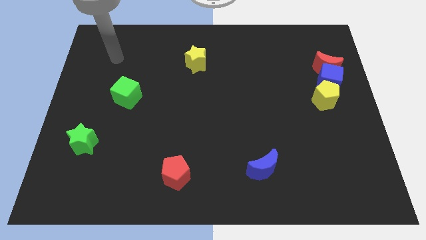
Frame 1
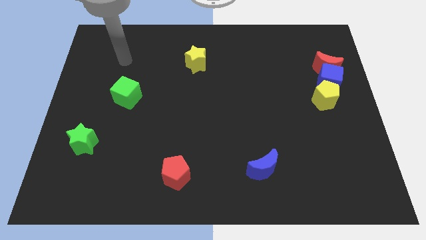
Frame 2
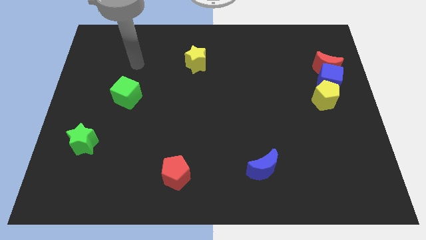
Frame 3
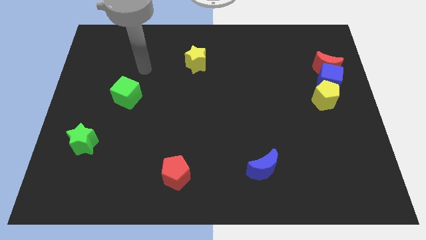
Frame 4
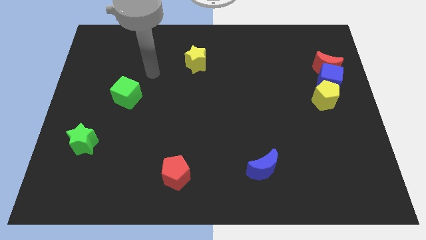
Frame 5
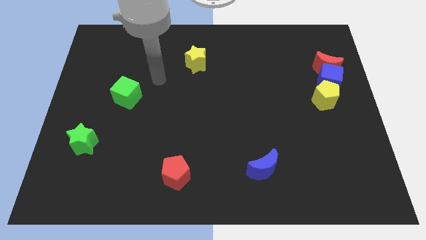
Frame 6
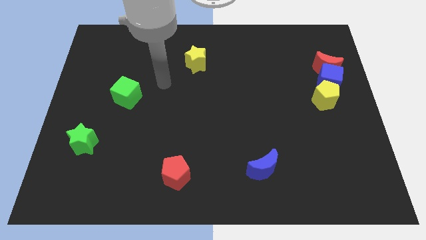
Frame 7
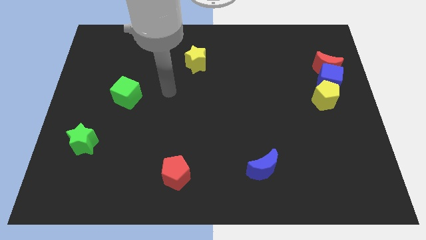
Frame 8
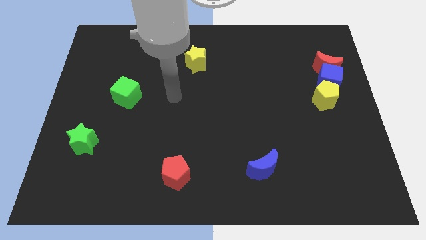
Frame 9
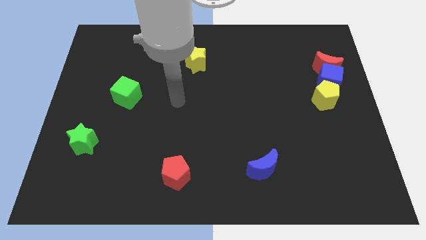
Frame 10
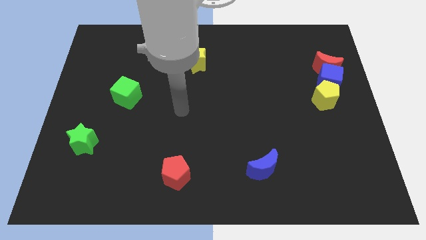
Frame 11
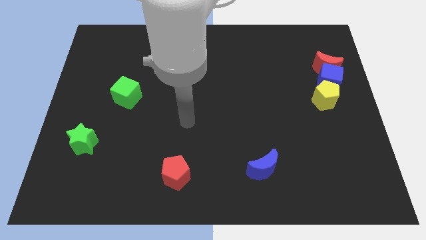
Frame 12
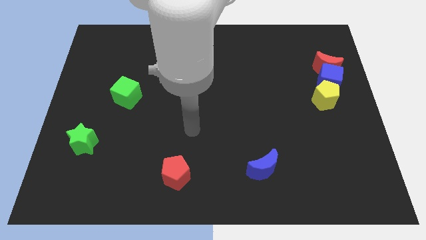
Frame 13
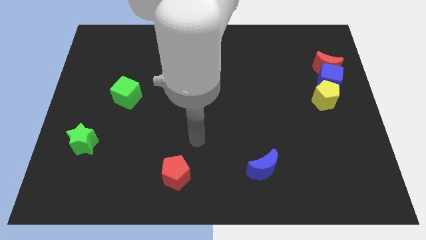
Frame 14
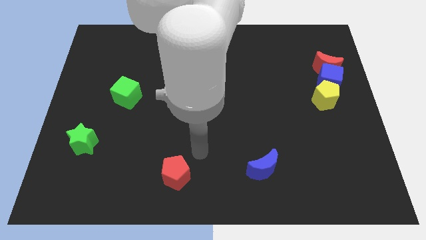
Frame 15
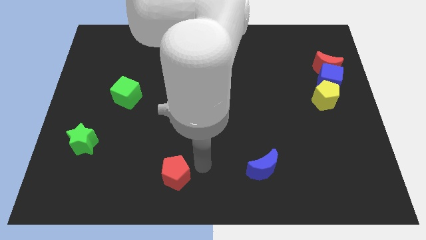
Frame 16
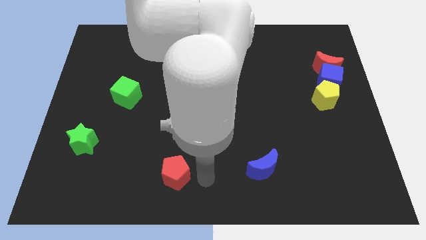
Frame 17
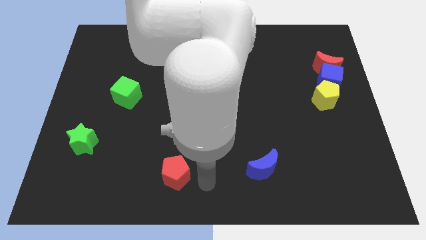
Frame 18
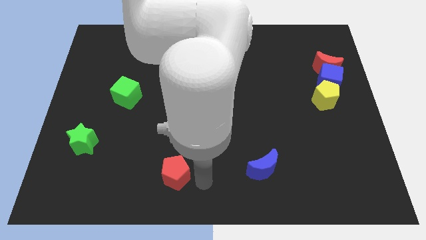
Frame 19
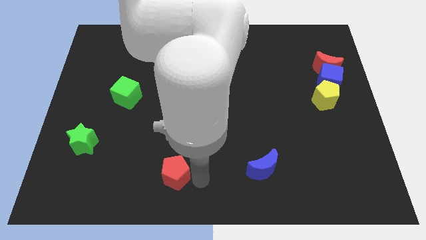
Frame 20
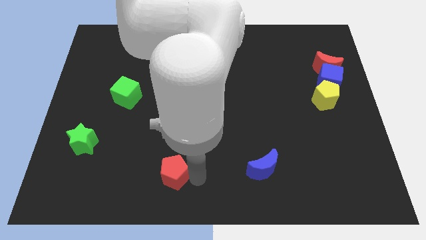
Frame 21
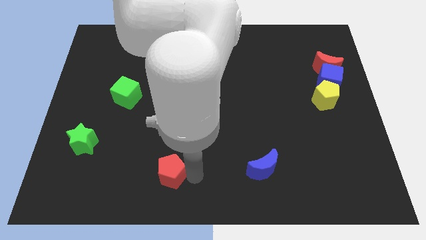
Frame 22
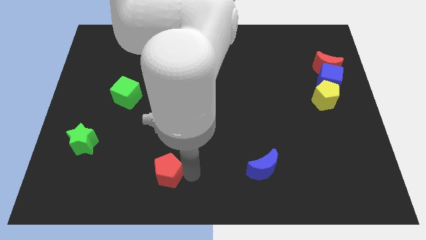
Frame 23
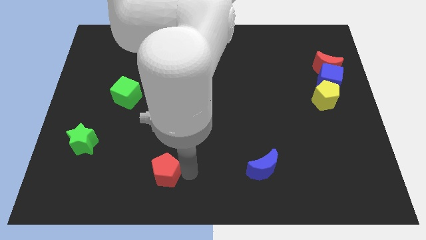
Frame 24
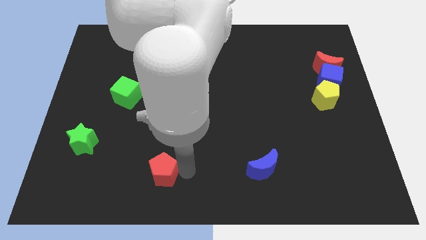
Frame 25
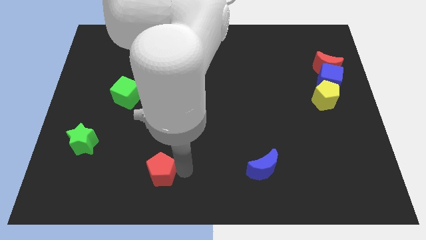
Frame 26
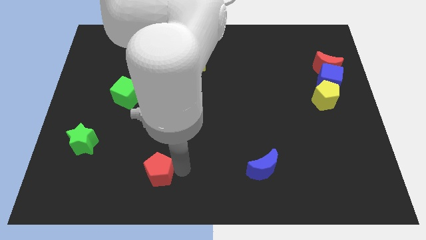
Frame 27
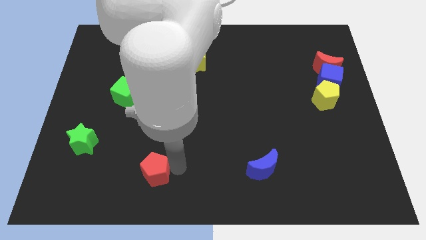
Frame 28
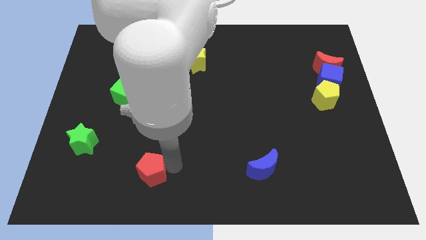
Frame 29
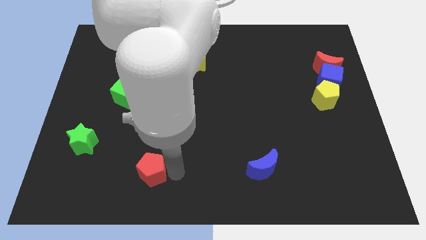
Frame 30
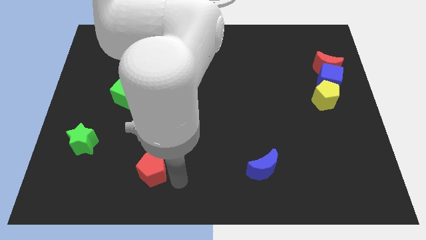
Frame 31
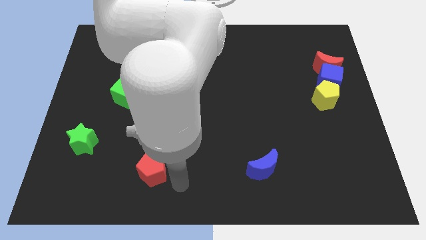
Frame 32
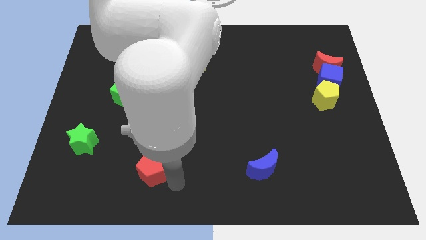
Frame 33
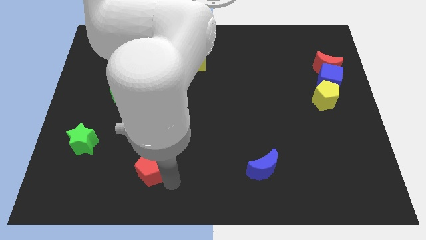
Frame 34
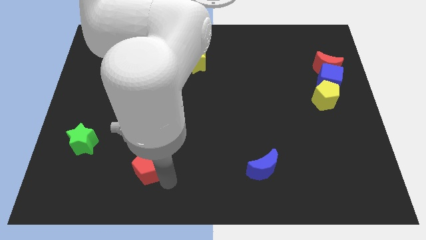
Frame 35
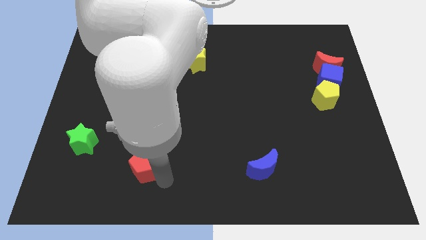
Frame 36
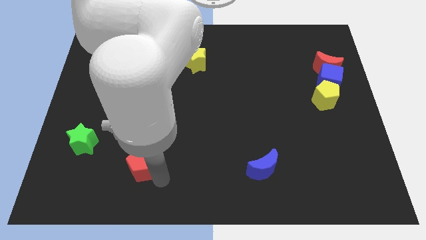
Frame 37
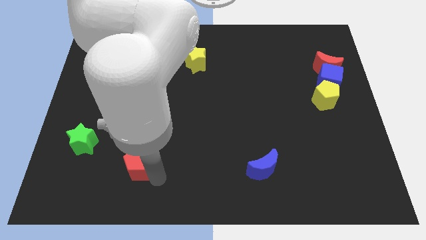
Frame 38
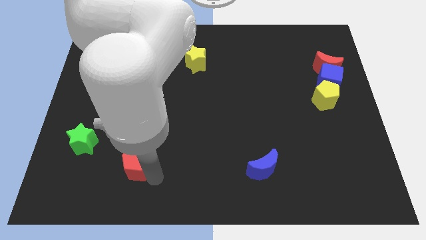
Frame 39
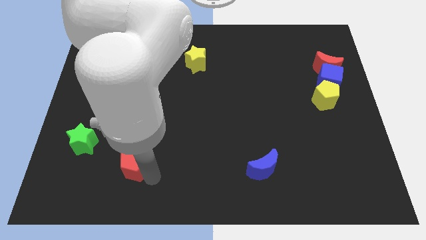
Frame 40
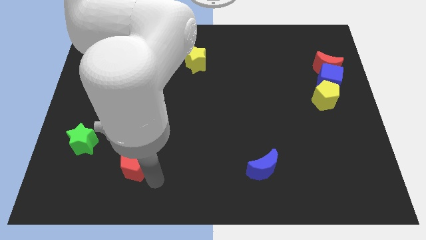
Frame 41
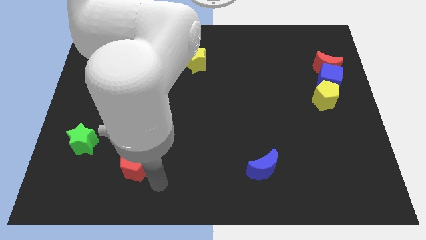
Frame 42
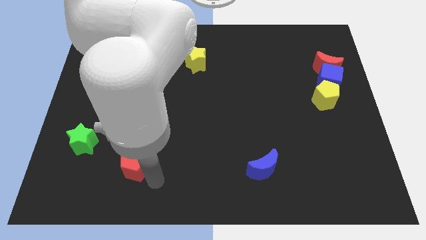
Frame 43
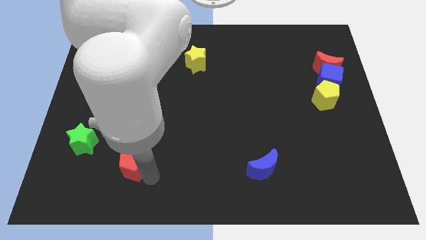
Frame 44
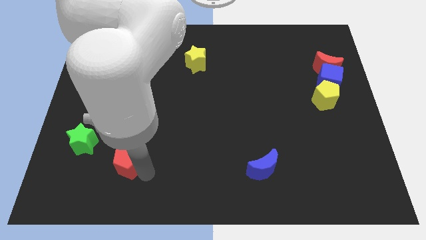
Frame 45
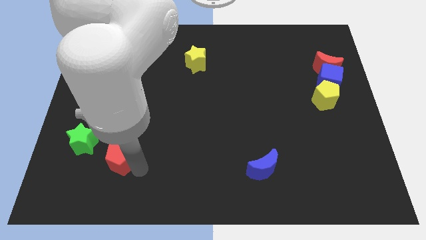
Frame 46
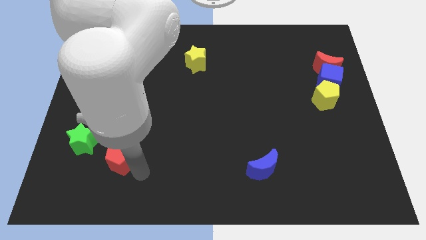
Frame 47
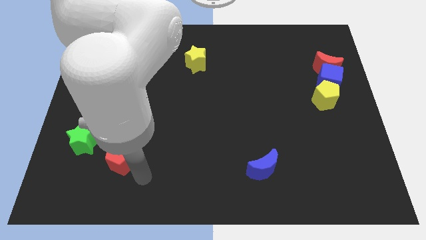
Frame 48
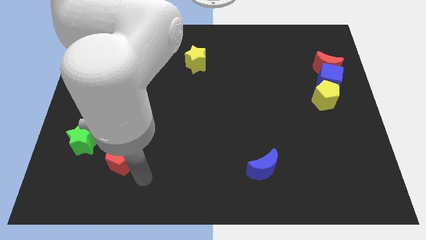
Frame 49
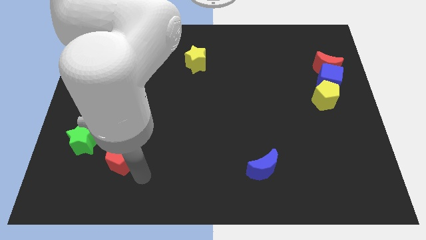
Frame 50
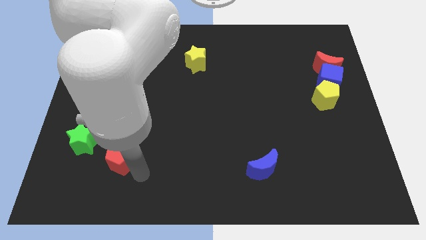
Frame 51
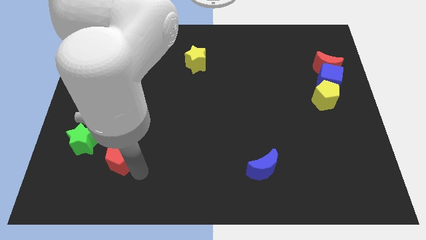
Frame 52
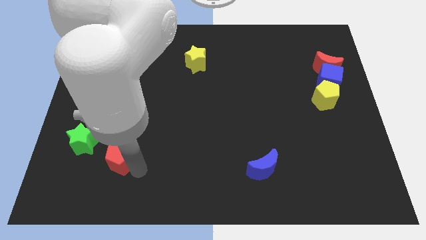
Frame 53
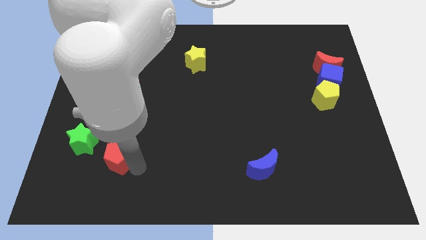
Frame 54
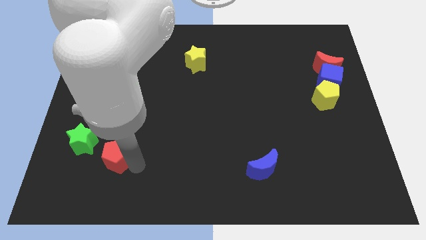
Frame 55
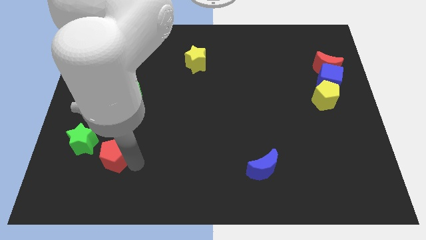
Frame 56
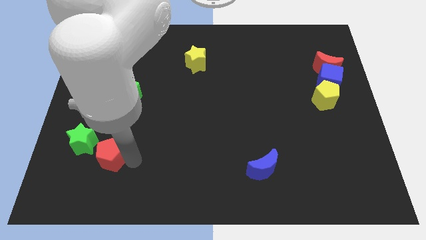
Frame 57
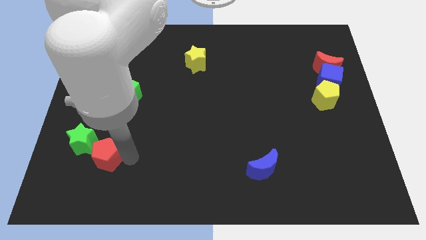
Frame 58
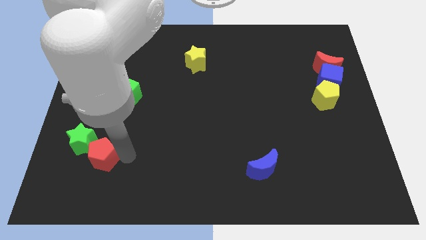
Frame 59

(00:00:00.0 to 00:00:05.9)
push the red pentagon to the green star

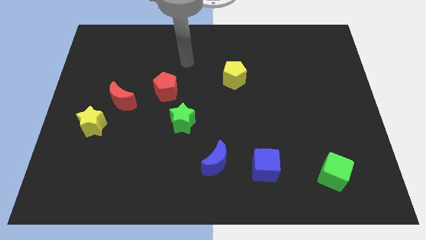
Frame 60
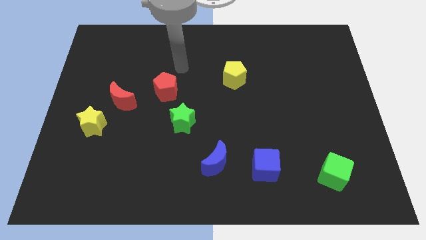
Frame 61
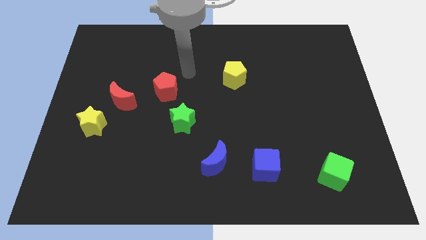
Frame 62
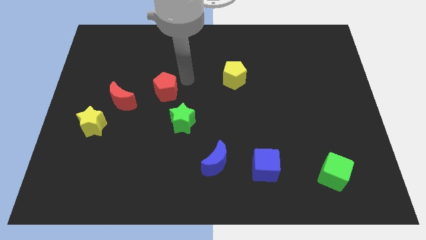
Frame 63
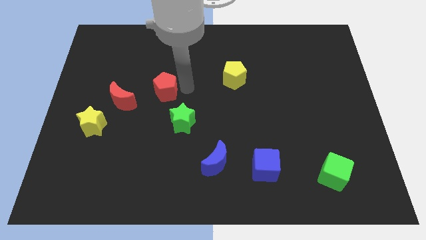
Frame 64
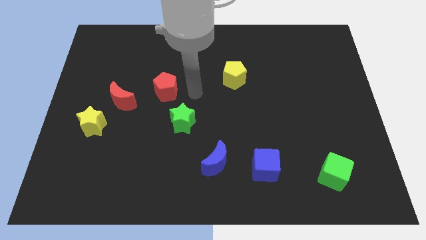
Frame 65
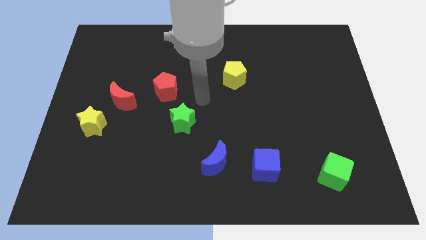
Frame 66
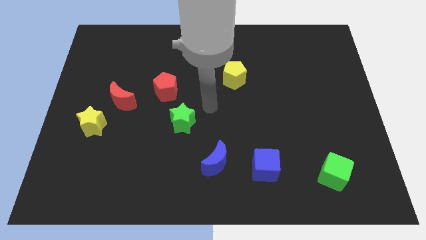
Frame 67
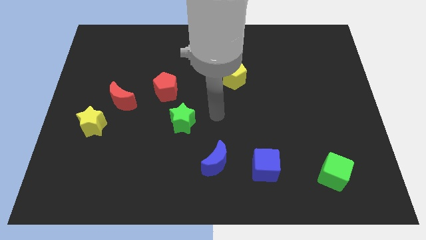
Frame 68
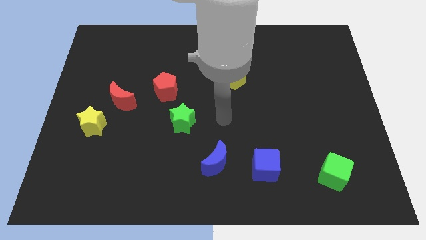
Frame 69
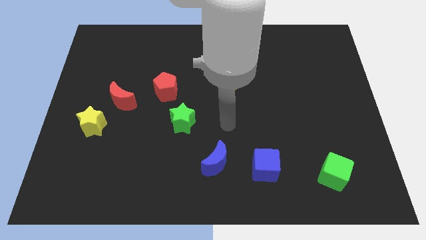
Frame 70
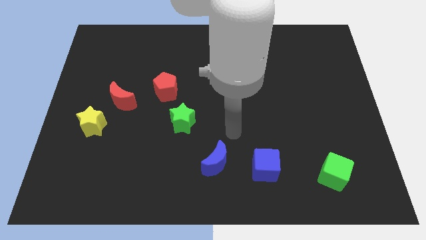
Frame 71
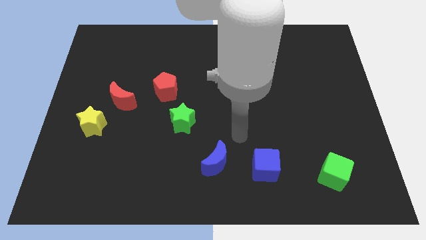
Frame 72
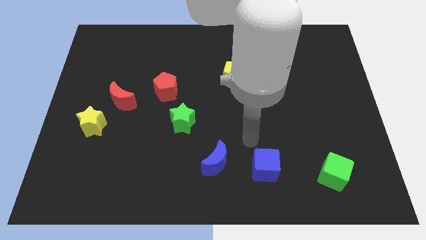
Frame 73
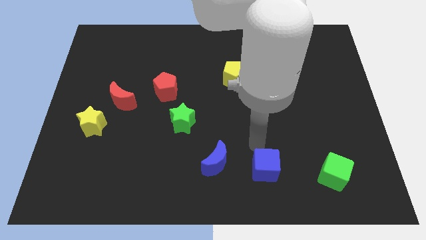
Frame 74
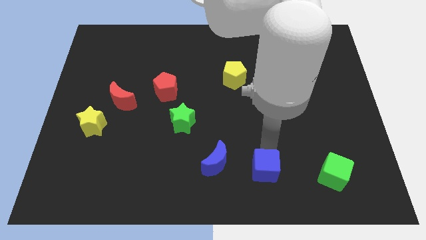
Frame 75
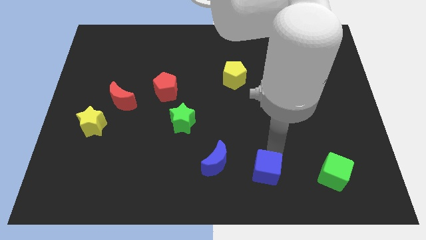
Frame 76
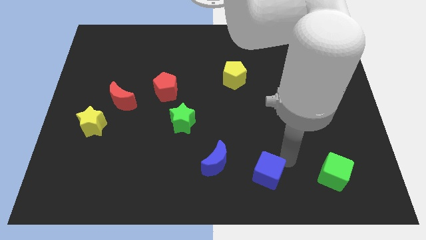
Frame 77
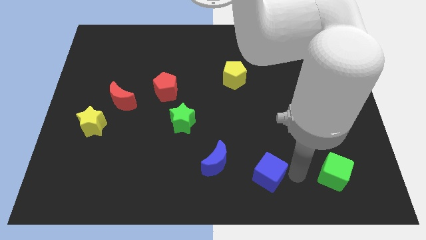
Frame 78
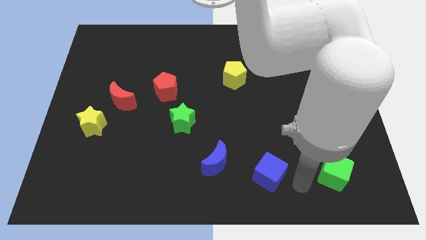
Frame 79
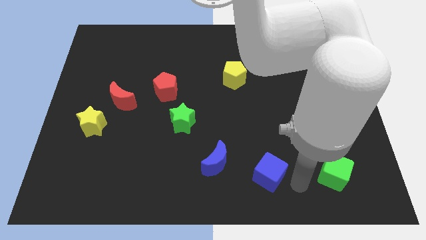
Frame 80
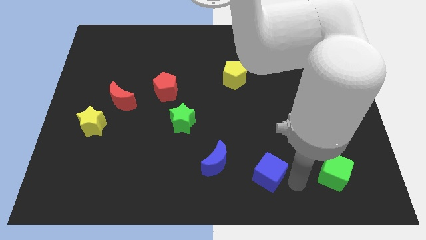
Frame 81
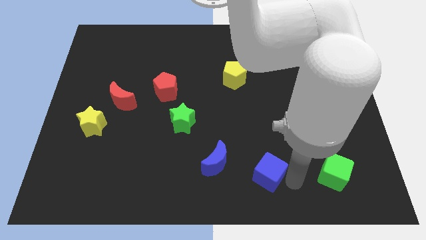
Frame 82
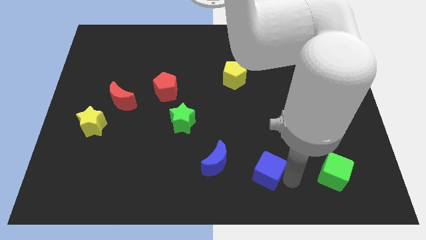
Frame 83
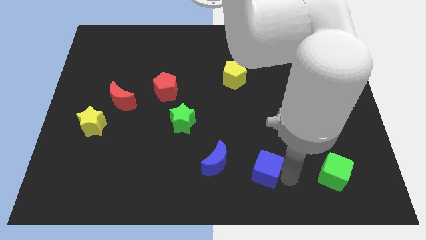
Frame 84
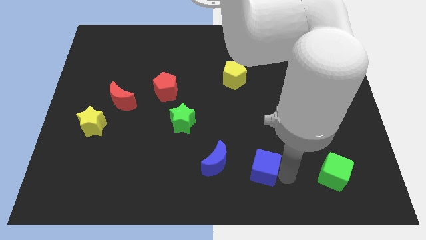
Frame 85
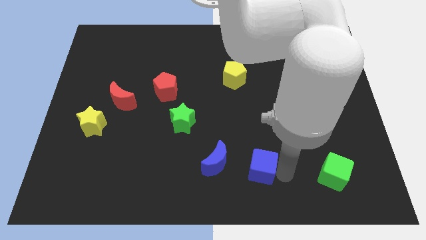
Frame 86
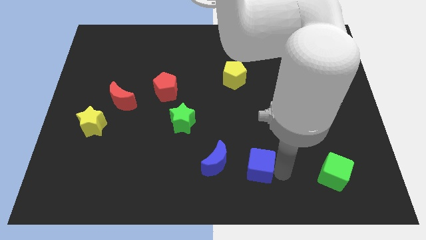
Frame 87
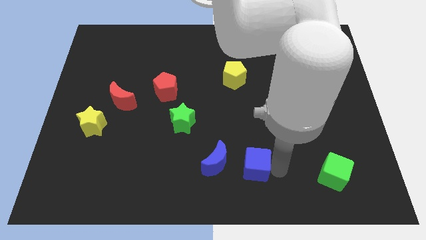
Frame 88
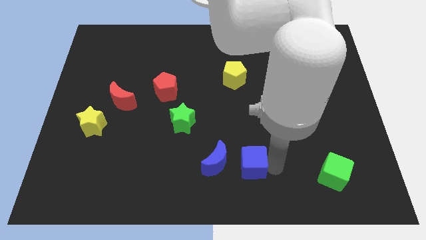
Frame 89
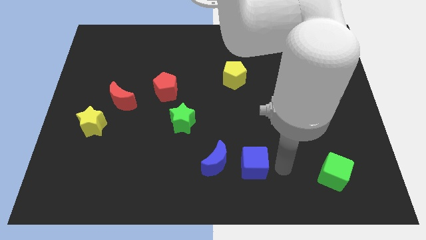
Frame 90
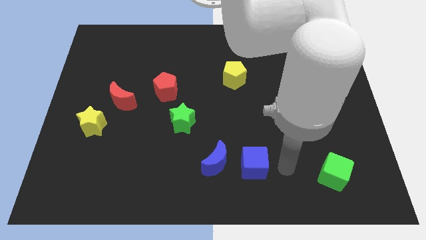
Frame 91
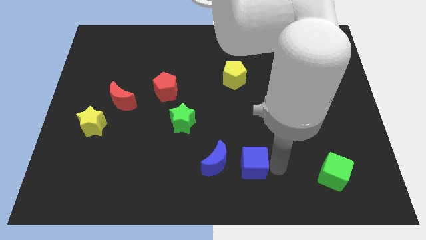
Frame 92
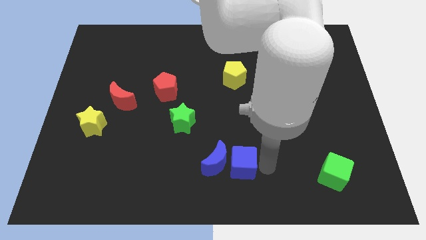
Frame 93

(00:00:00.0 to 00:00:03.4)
move the blue cube towards the blue moon
